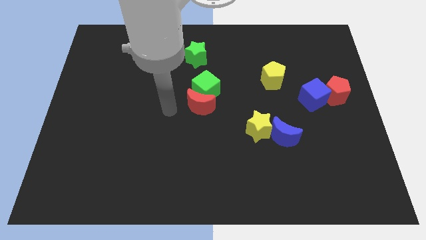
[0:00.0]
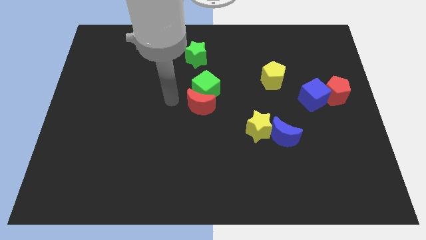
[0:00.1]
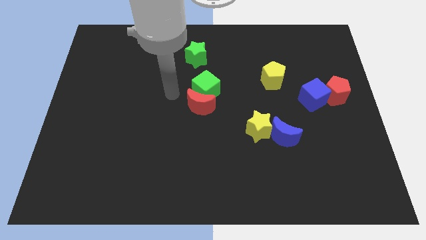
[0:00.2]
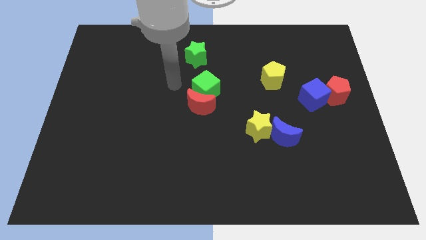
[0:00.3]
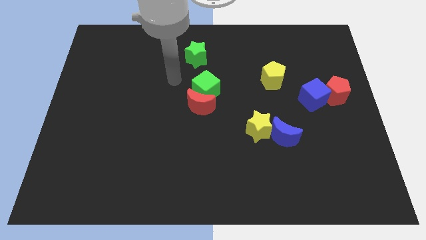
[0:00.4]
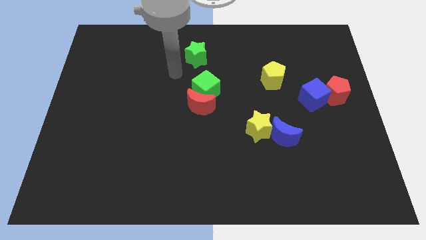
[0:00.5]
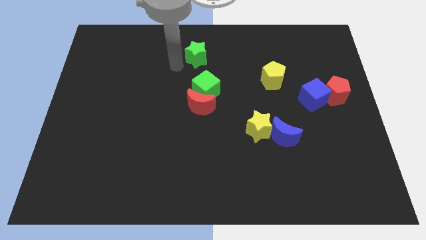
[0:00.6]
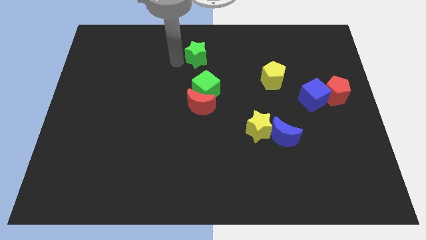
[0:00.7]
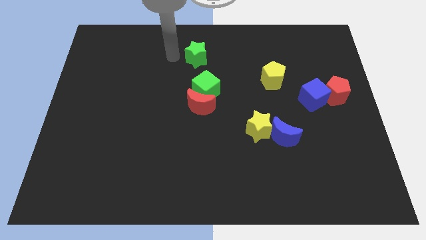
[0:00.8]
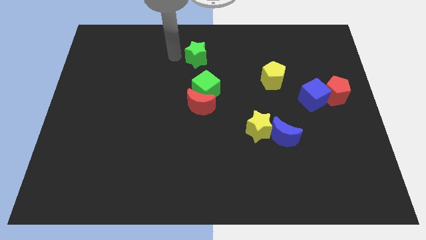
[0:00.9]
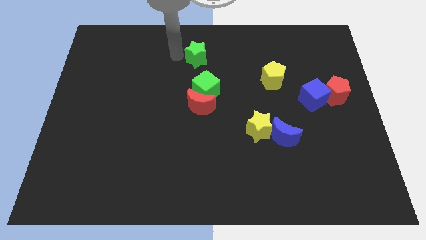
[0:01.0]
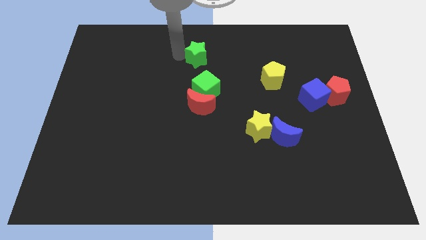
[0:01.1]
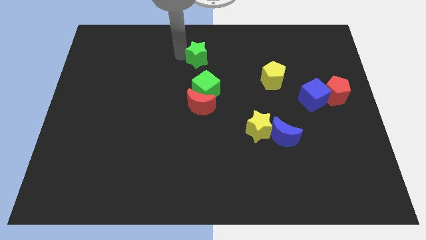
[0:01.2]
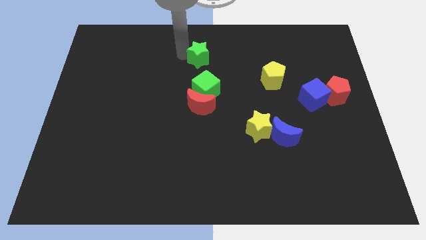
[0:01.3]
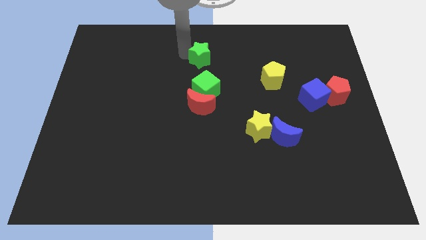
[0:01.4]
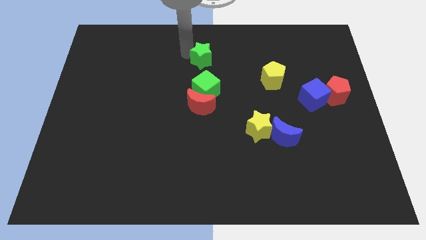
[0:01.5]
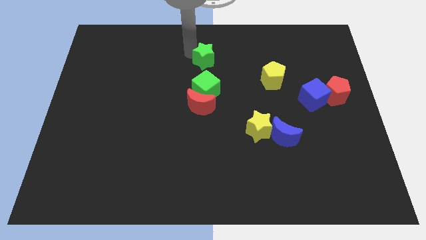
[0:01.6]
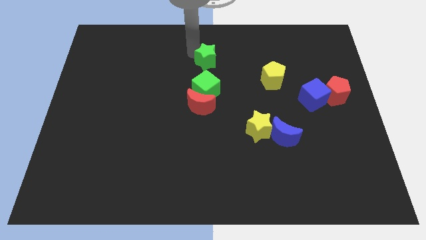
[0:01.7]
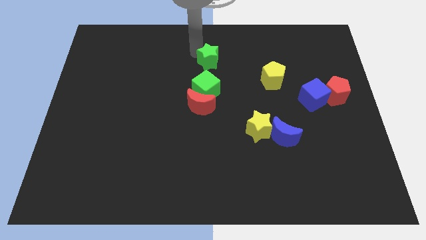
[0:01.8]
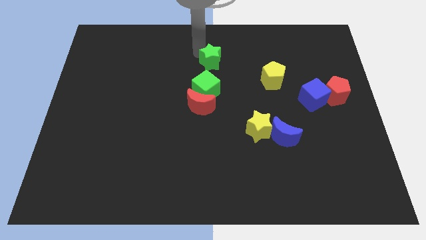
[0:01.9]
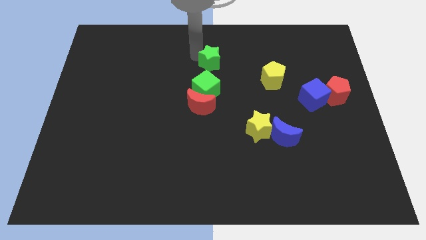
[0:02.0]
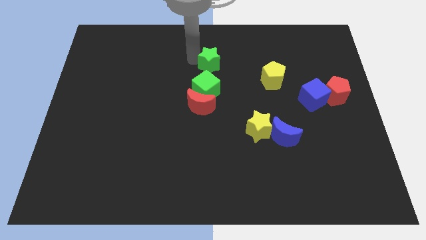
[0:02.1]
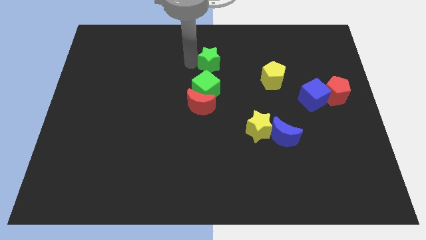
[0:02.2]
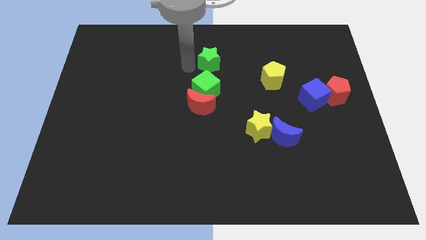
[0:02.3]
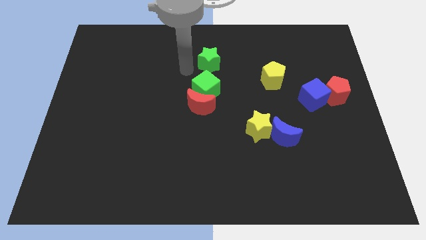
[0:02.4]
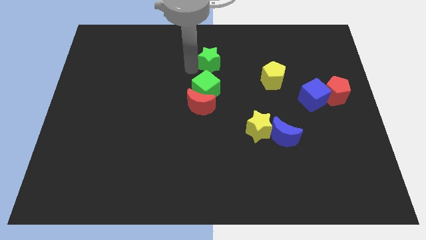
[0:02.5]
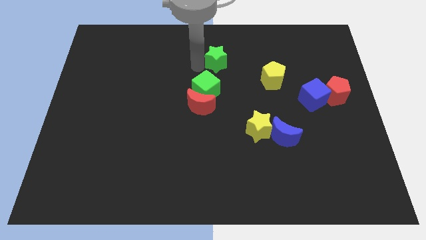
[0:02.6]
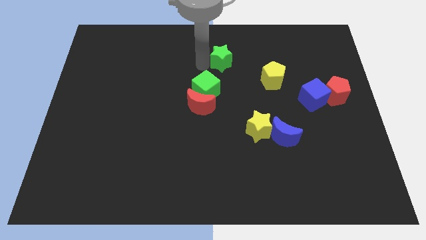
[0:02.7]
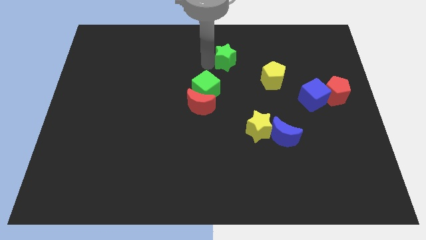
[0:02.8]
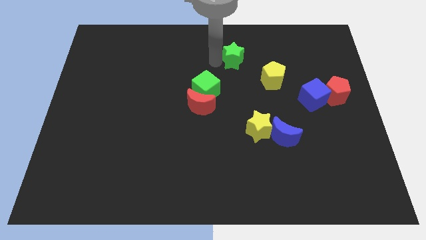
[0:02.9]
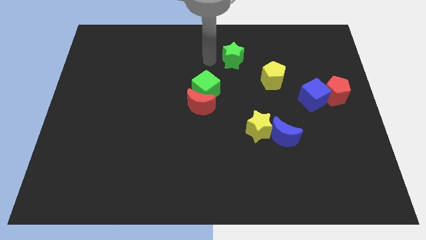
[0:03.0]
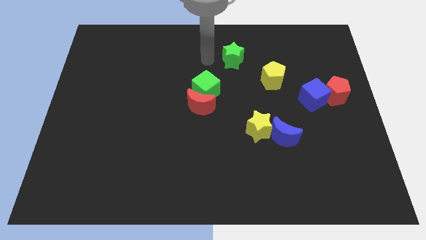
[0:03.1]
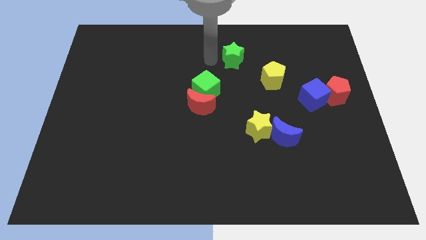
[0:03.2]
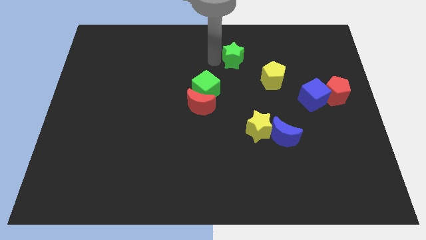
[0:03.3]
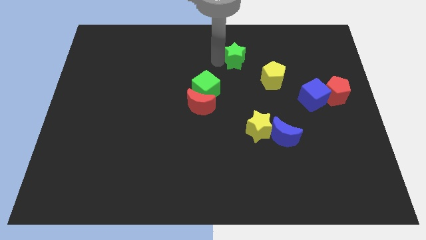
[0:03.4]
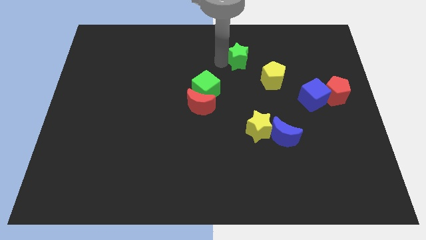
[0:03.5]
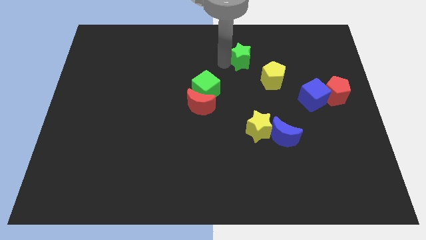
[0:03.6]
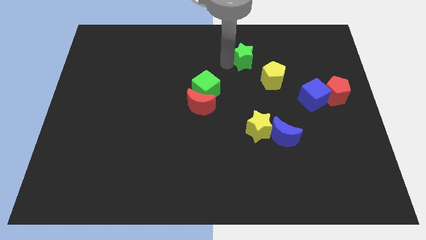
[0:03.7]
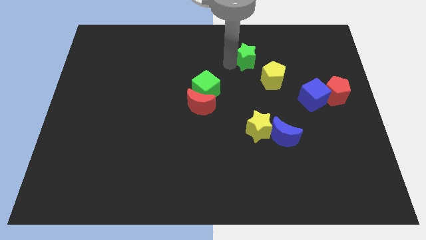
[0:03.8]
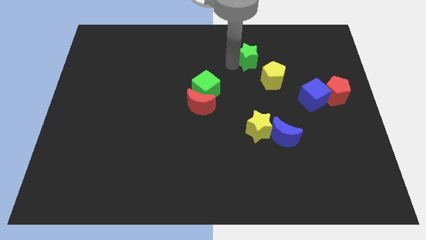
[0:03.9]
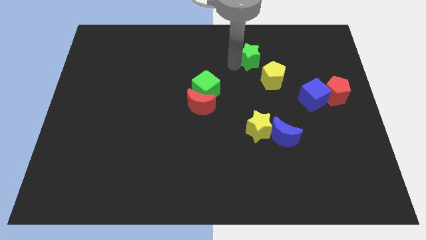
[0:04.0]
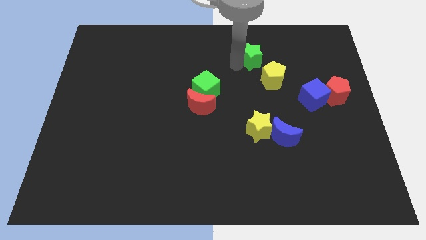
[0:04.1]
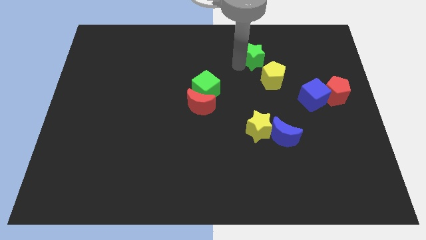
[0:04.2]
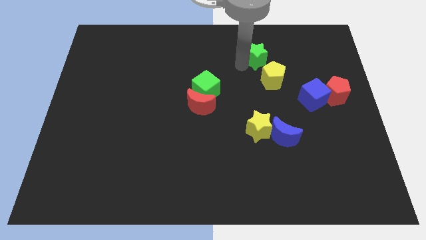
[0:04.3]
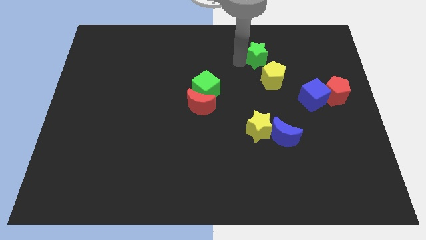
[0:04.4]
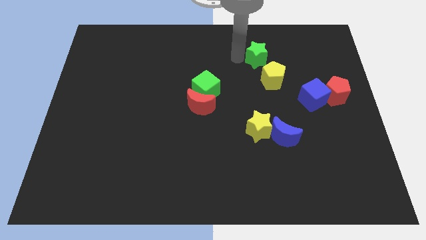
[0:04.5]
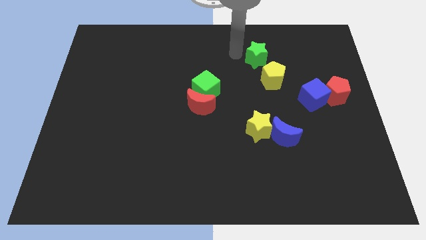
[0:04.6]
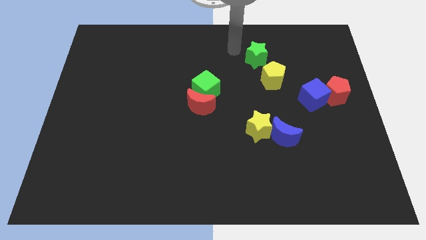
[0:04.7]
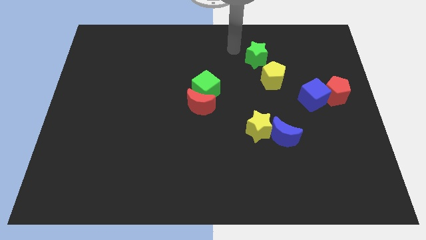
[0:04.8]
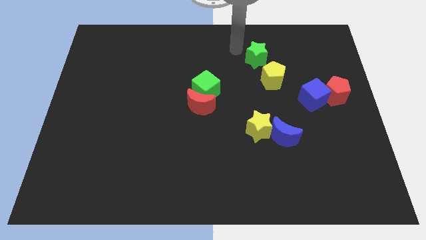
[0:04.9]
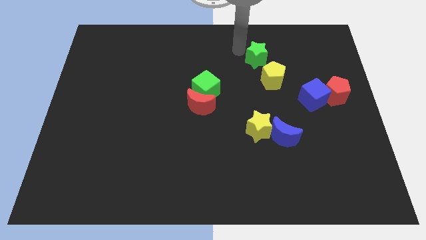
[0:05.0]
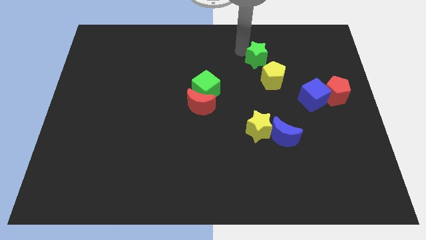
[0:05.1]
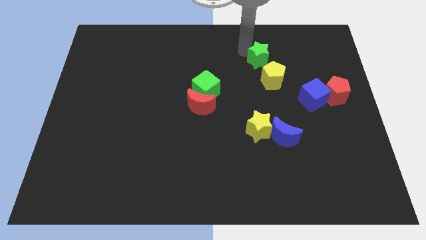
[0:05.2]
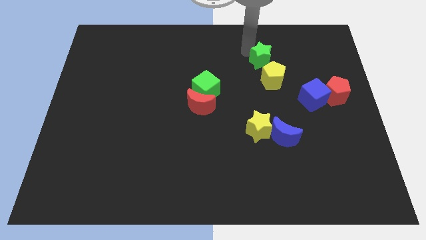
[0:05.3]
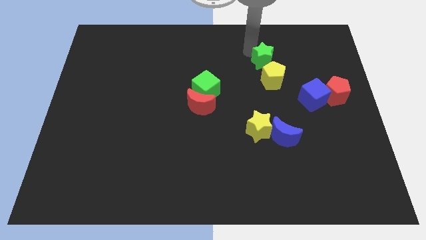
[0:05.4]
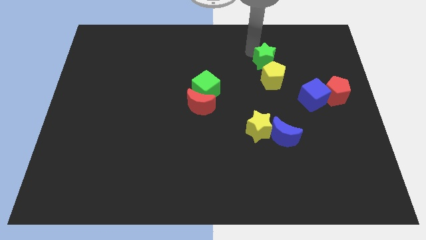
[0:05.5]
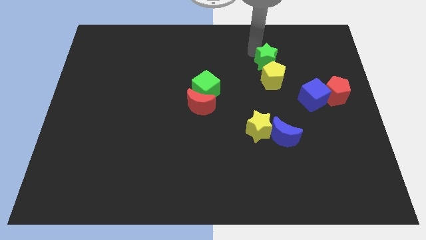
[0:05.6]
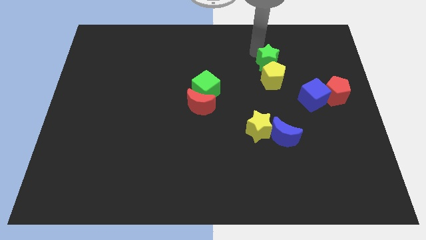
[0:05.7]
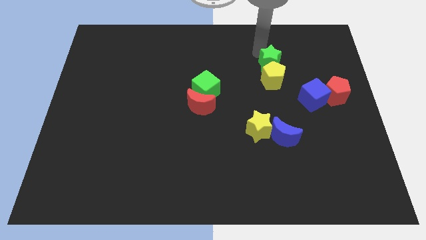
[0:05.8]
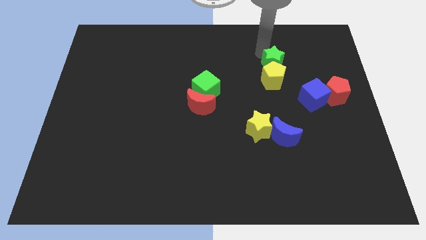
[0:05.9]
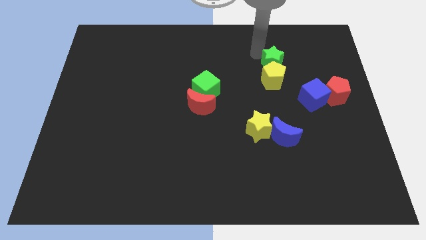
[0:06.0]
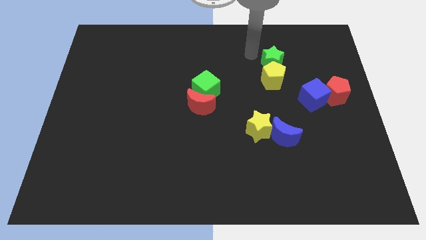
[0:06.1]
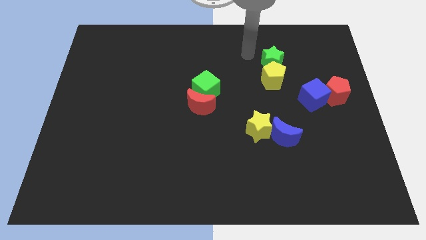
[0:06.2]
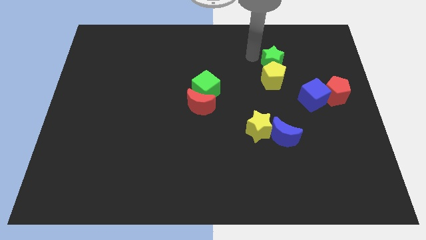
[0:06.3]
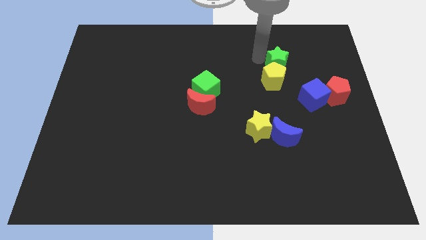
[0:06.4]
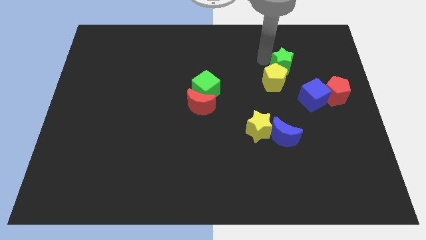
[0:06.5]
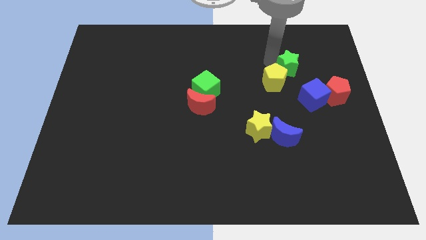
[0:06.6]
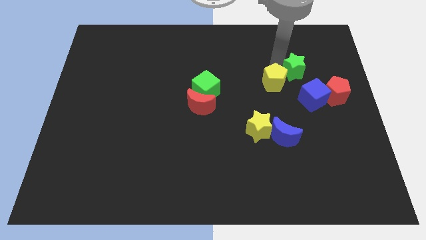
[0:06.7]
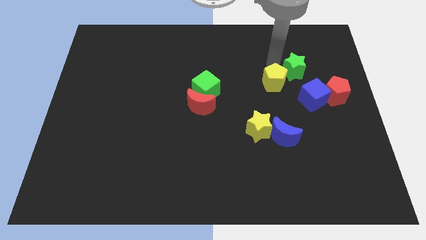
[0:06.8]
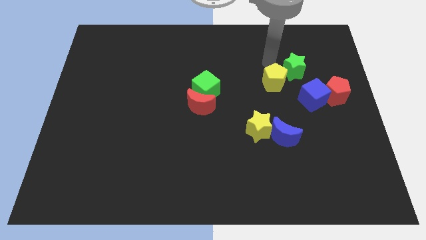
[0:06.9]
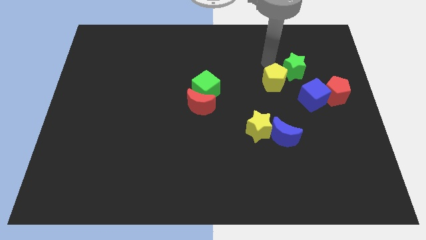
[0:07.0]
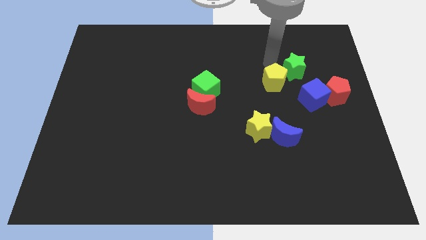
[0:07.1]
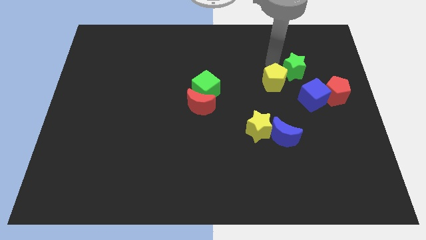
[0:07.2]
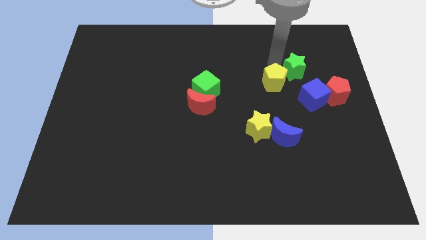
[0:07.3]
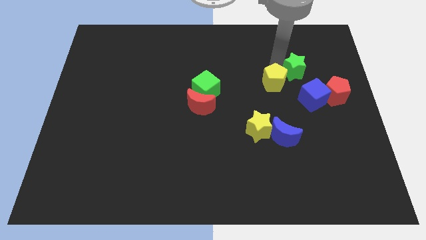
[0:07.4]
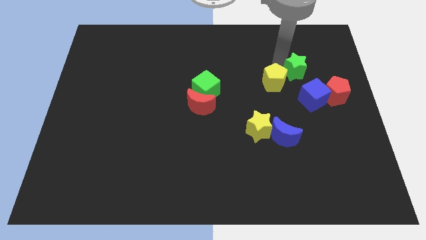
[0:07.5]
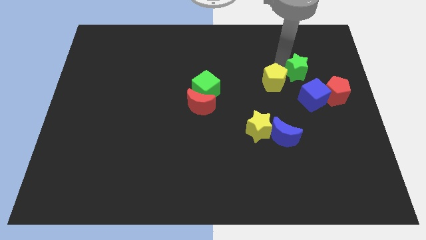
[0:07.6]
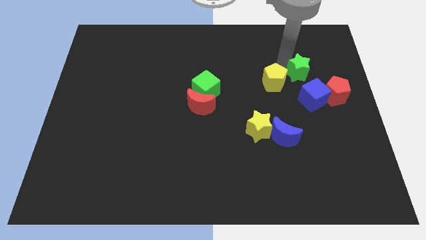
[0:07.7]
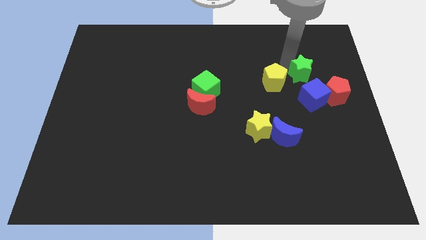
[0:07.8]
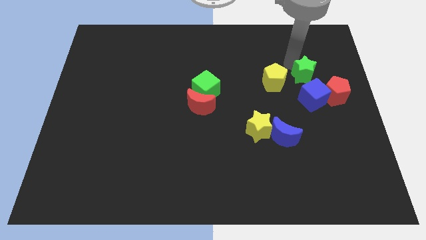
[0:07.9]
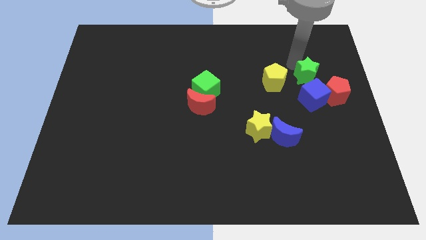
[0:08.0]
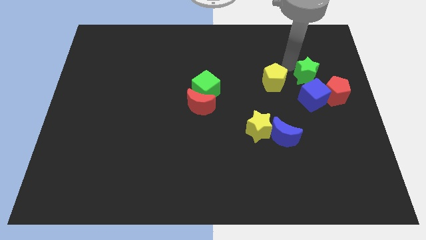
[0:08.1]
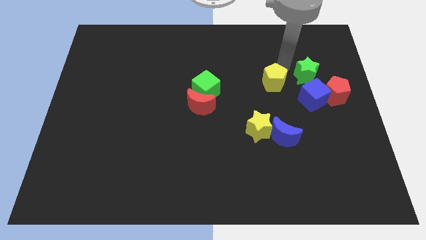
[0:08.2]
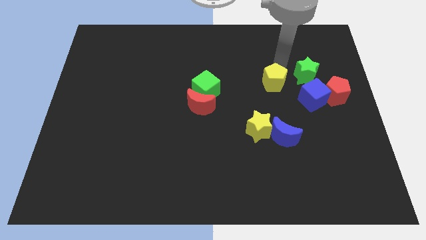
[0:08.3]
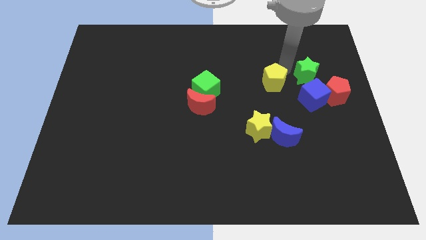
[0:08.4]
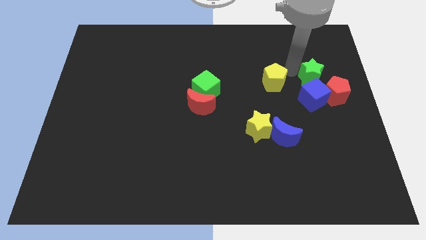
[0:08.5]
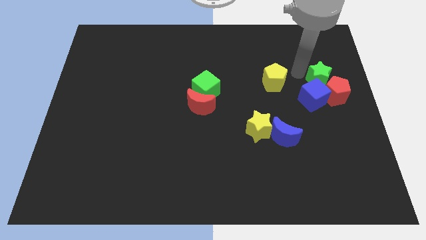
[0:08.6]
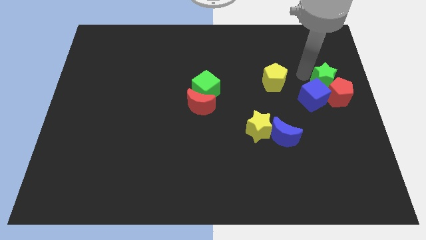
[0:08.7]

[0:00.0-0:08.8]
move the green star to the right side
